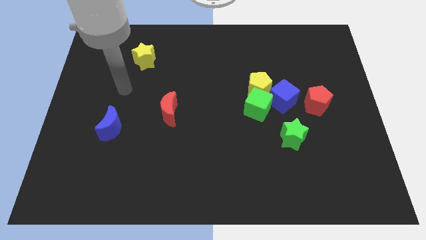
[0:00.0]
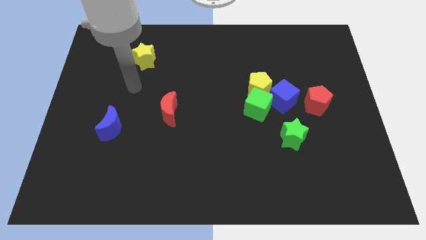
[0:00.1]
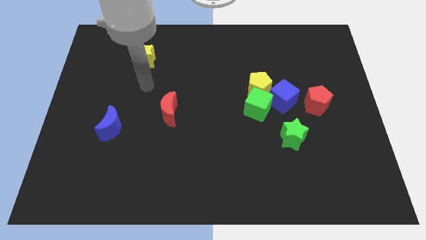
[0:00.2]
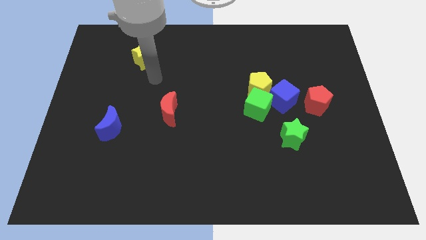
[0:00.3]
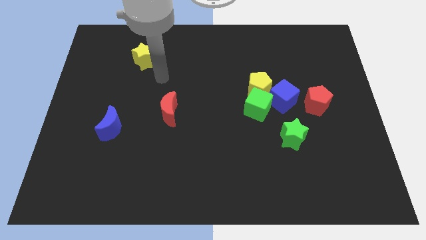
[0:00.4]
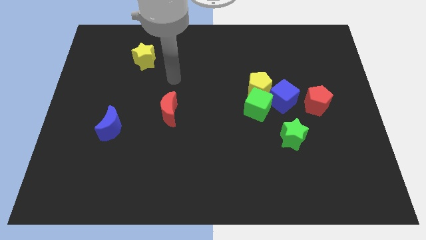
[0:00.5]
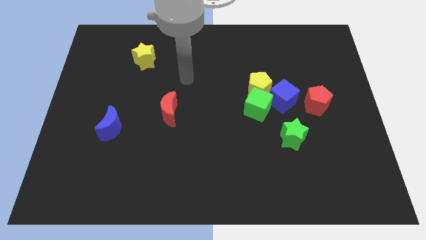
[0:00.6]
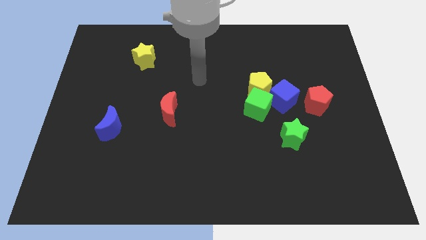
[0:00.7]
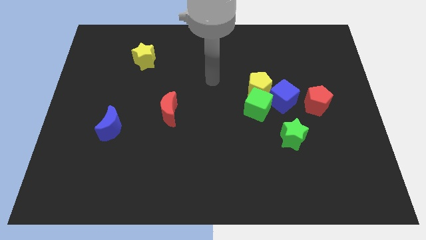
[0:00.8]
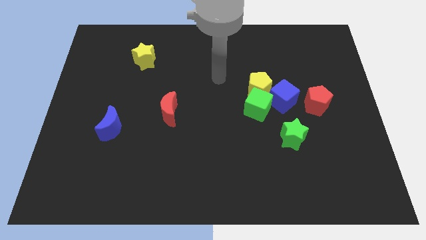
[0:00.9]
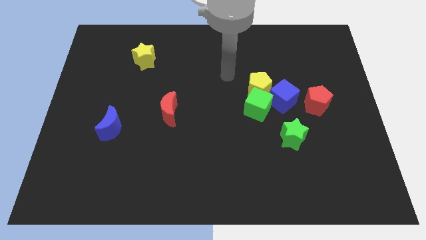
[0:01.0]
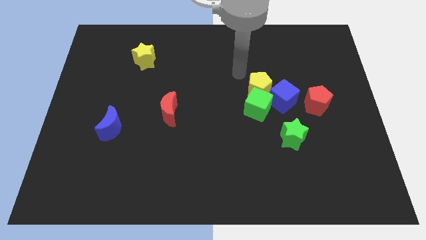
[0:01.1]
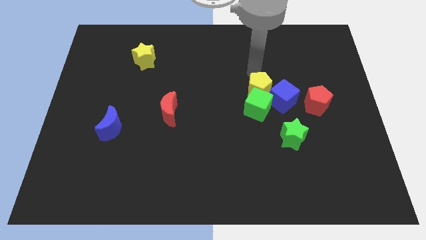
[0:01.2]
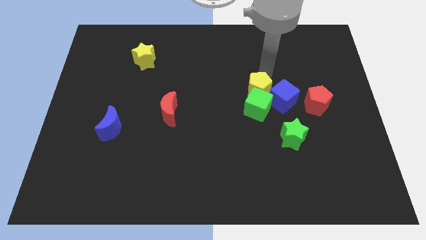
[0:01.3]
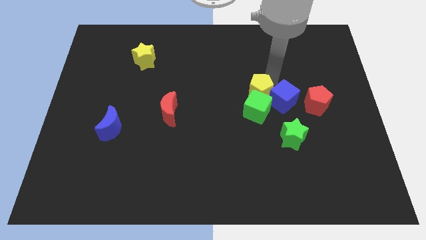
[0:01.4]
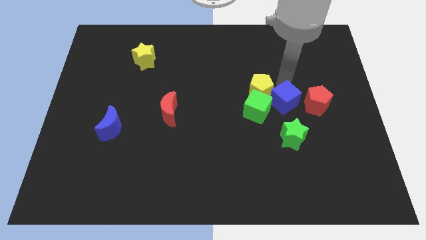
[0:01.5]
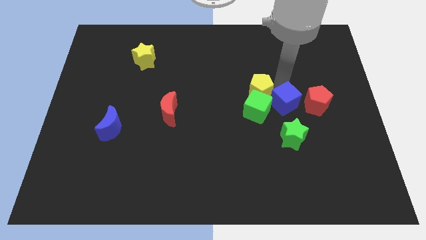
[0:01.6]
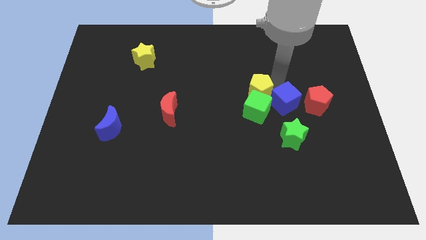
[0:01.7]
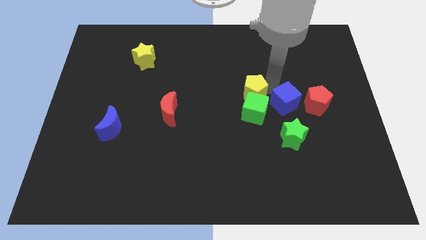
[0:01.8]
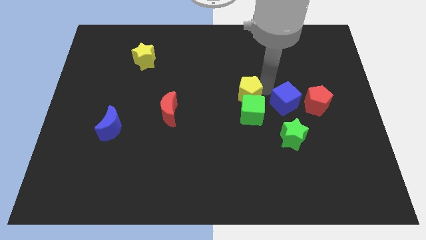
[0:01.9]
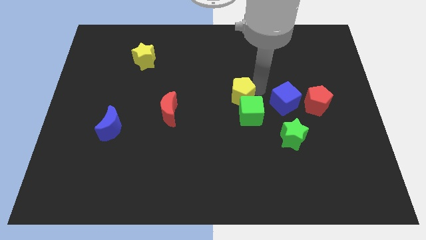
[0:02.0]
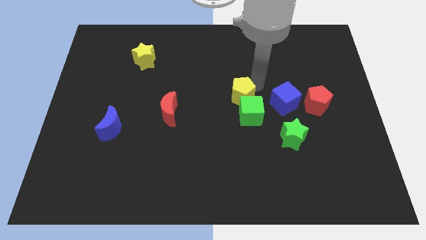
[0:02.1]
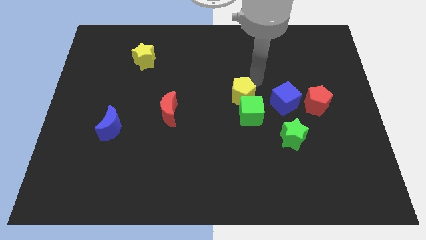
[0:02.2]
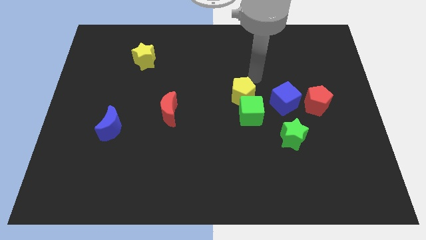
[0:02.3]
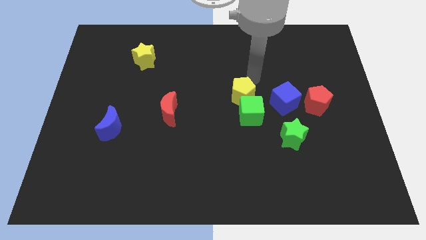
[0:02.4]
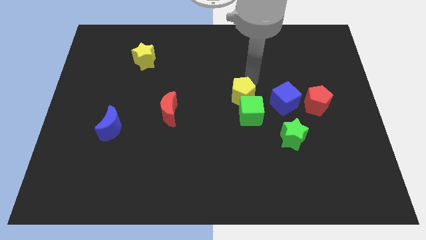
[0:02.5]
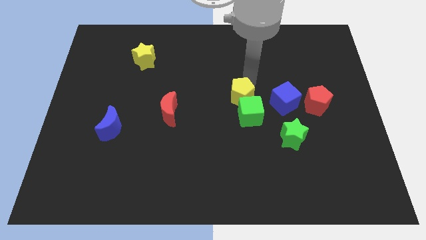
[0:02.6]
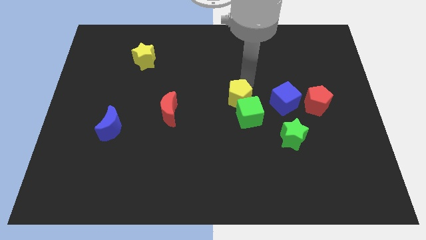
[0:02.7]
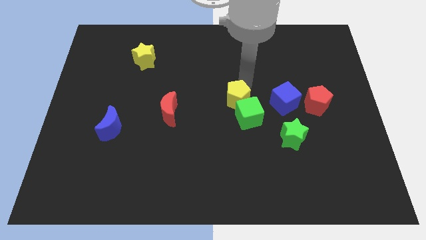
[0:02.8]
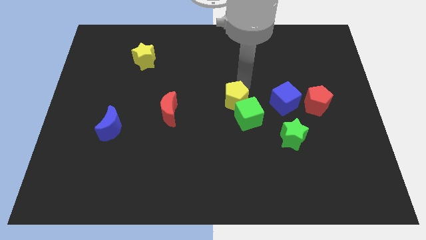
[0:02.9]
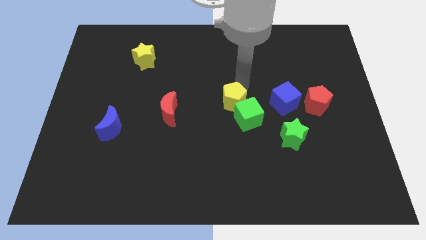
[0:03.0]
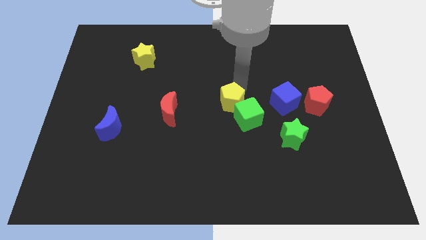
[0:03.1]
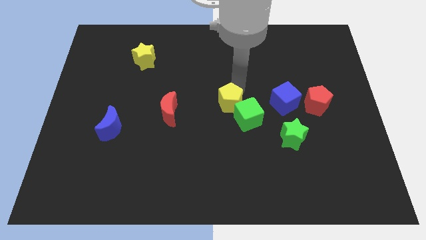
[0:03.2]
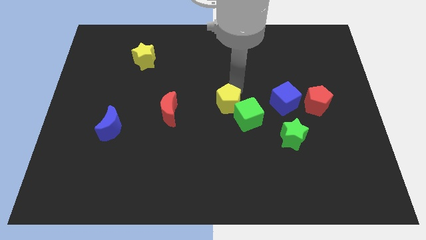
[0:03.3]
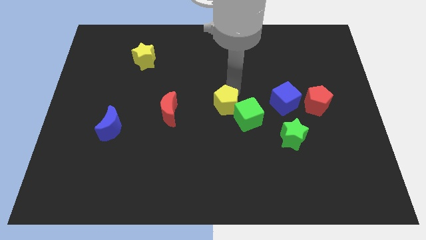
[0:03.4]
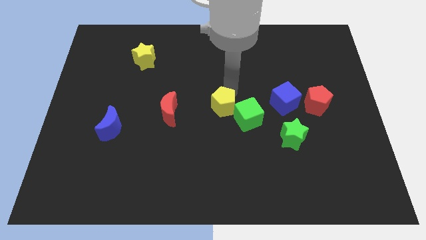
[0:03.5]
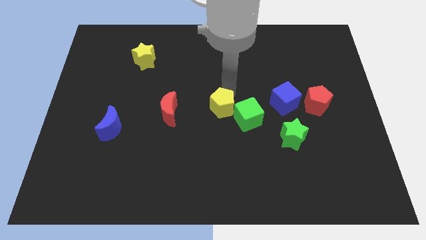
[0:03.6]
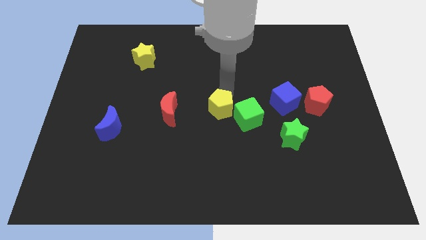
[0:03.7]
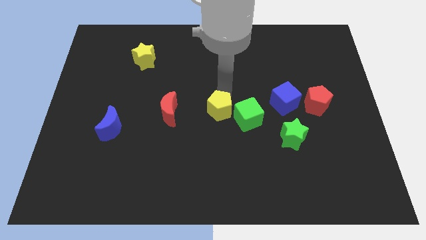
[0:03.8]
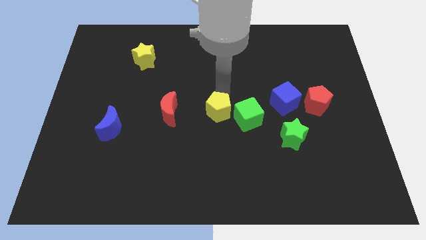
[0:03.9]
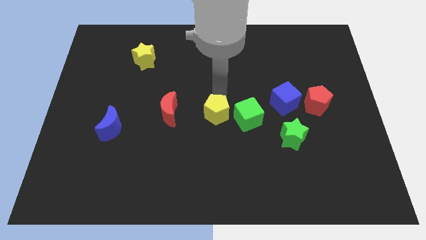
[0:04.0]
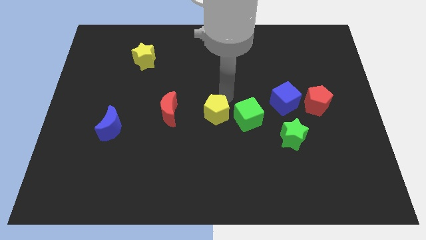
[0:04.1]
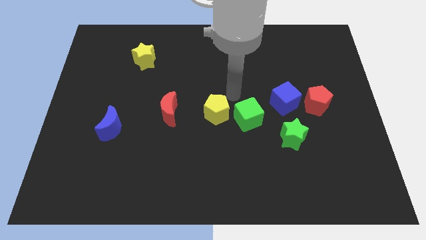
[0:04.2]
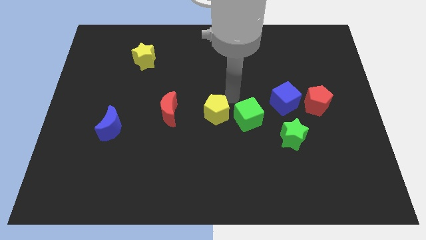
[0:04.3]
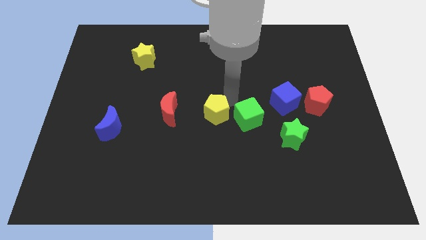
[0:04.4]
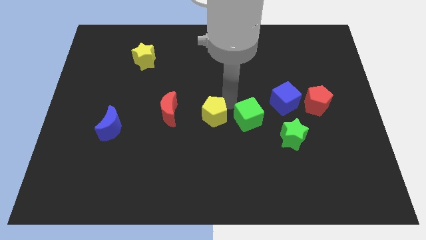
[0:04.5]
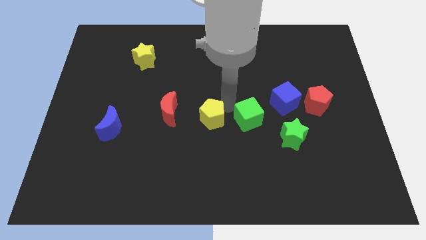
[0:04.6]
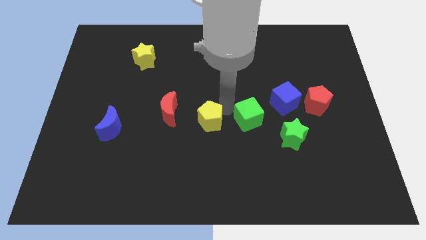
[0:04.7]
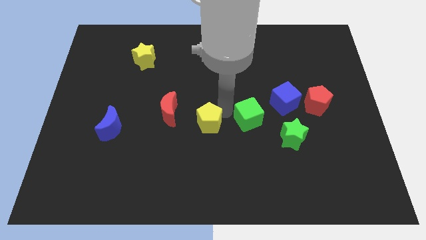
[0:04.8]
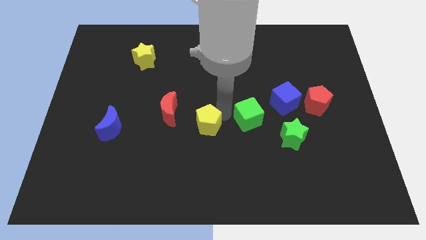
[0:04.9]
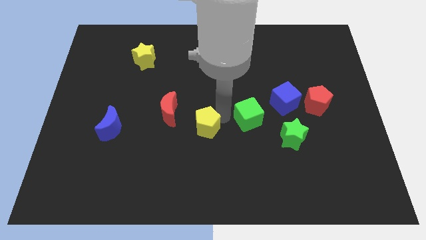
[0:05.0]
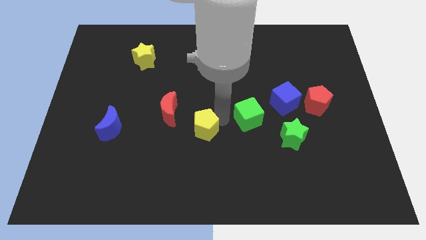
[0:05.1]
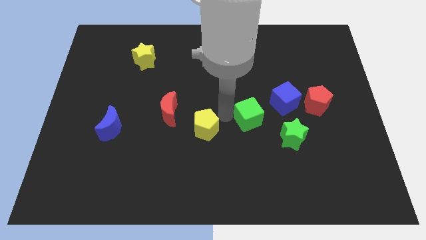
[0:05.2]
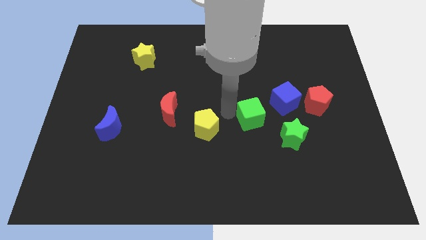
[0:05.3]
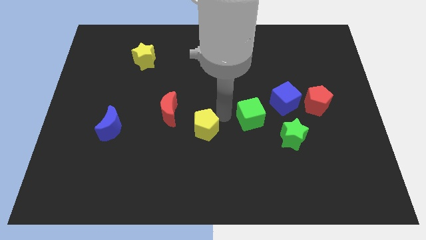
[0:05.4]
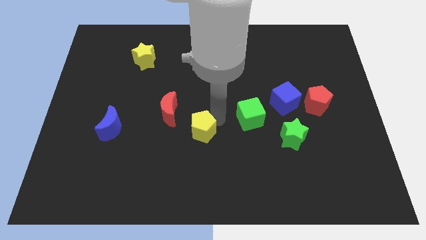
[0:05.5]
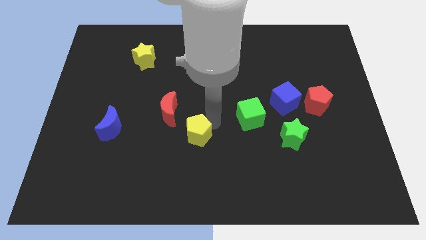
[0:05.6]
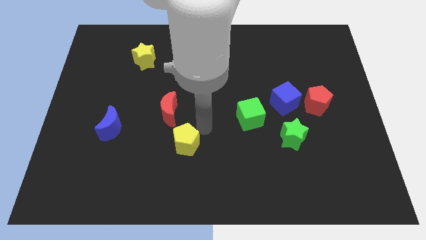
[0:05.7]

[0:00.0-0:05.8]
slide the yellow pentagon diagonally down and left

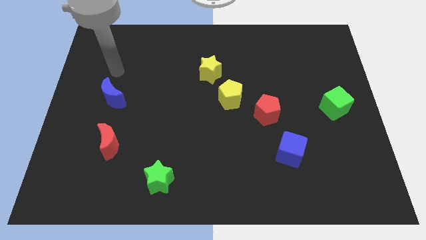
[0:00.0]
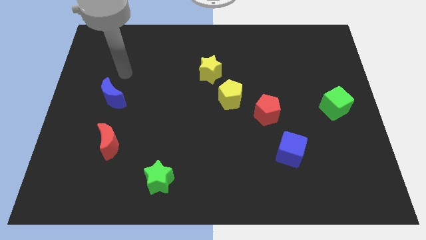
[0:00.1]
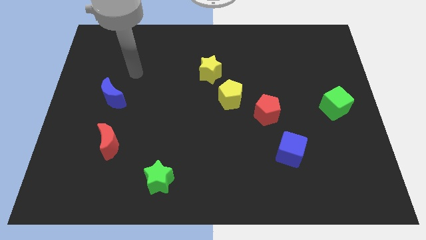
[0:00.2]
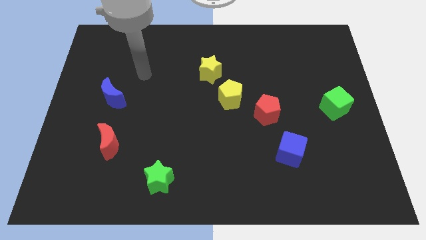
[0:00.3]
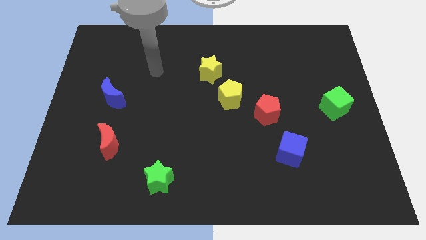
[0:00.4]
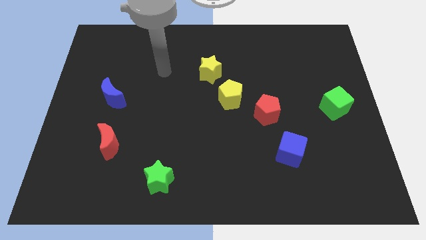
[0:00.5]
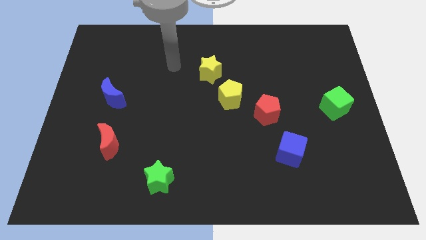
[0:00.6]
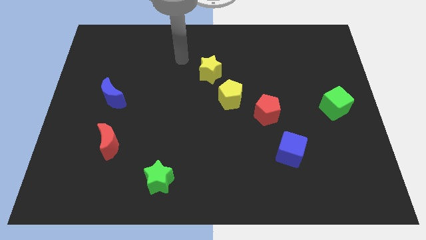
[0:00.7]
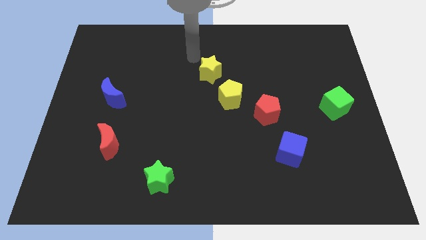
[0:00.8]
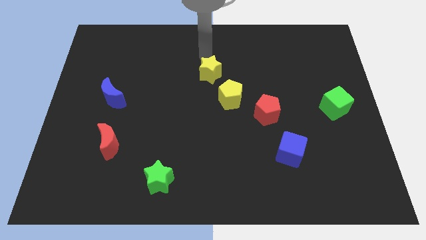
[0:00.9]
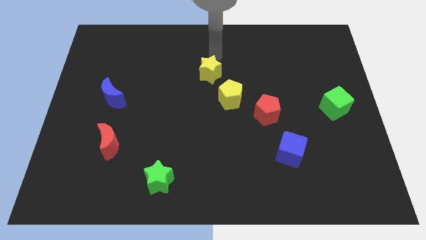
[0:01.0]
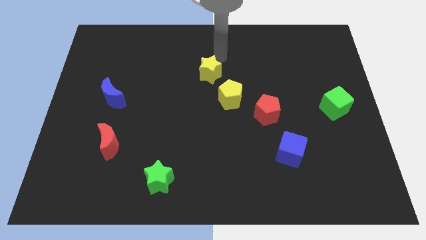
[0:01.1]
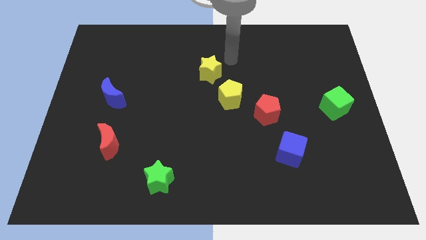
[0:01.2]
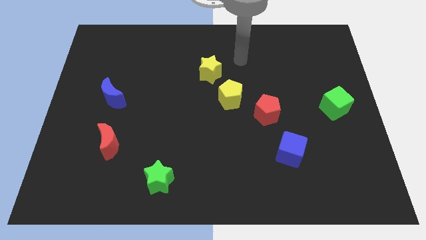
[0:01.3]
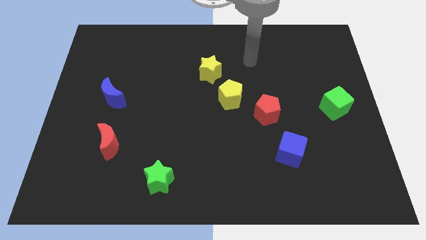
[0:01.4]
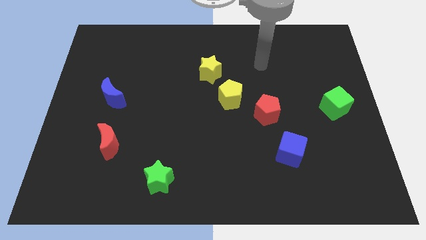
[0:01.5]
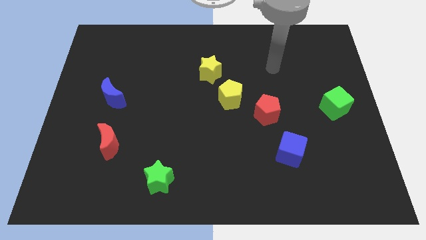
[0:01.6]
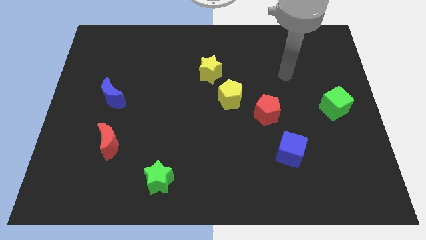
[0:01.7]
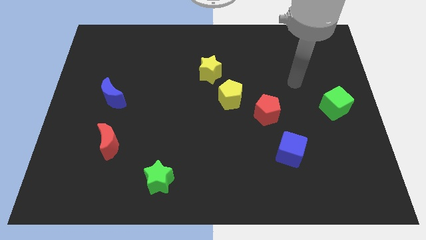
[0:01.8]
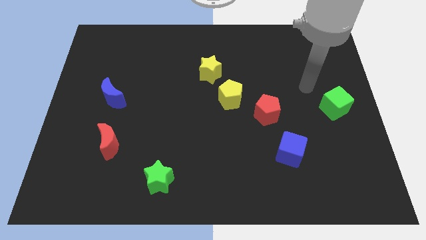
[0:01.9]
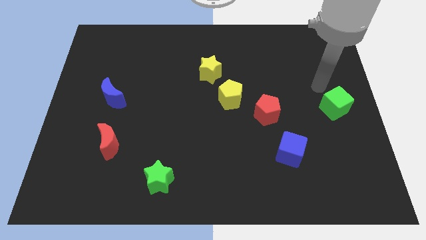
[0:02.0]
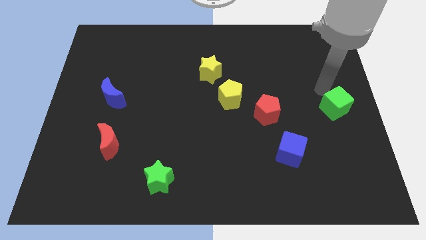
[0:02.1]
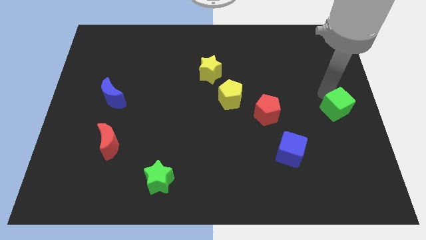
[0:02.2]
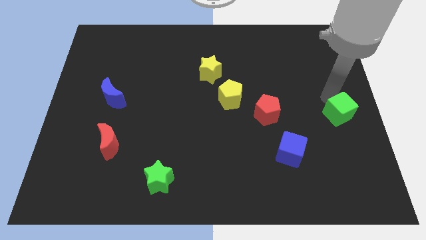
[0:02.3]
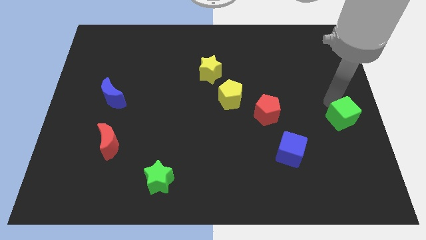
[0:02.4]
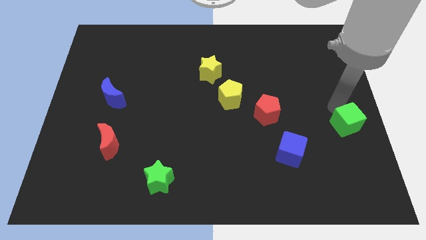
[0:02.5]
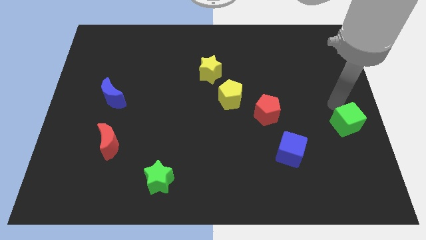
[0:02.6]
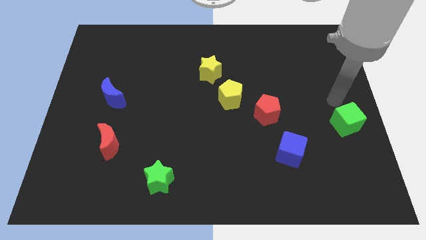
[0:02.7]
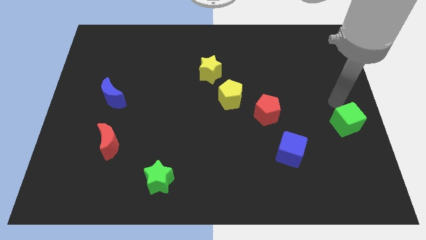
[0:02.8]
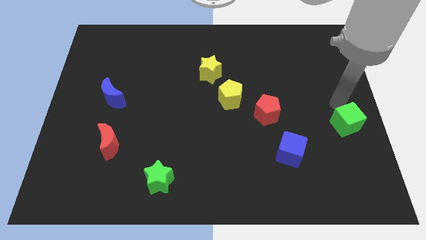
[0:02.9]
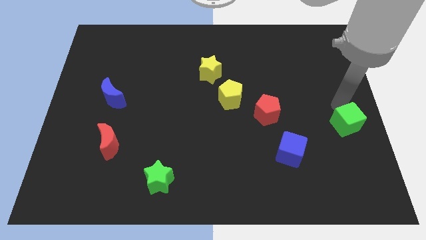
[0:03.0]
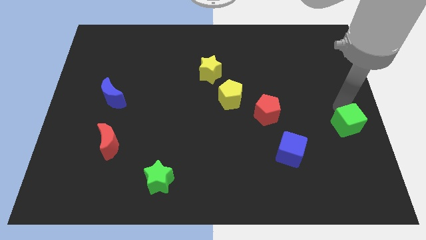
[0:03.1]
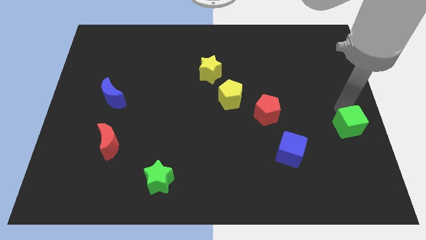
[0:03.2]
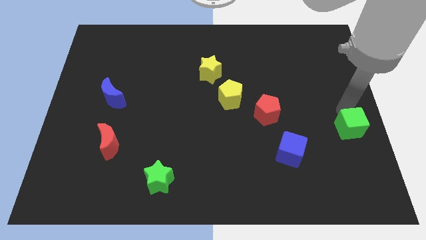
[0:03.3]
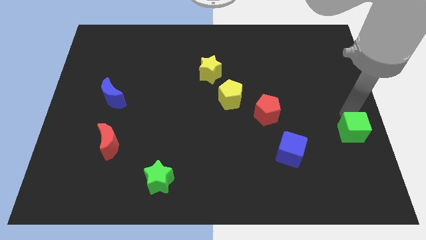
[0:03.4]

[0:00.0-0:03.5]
slightly move the green cube downwards
